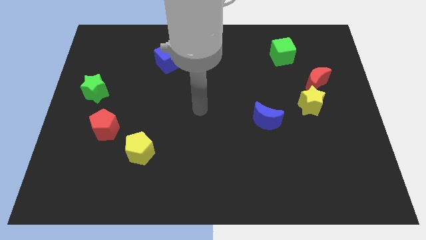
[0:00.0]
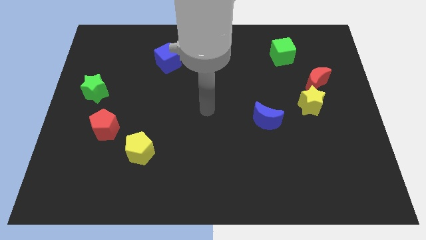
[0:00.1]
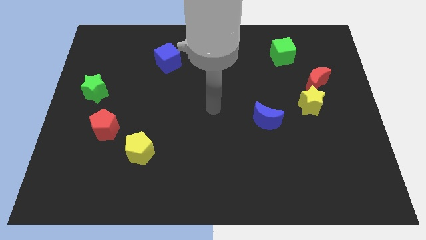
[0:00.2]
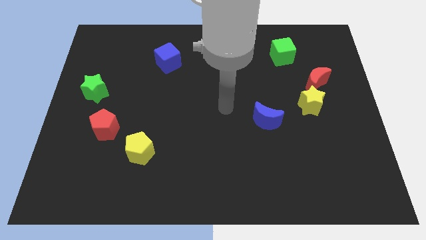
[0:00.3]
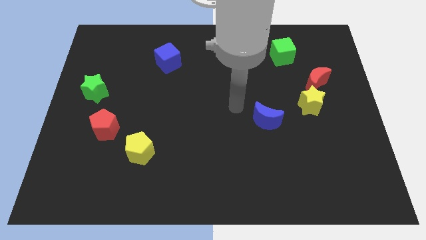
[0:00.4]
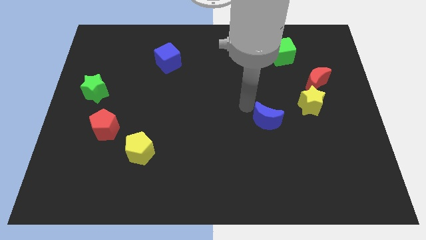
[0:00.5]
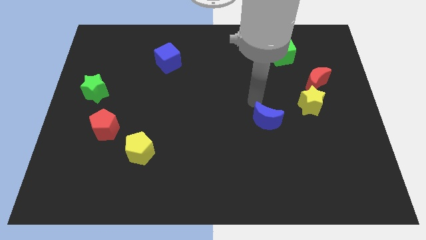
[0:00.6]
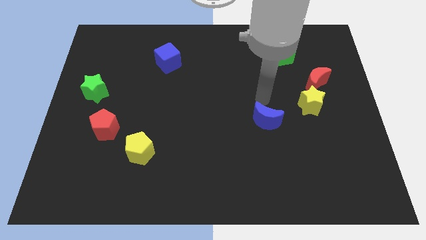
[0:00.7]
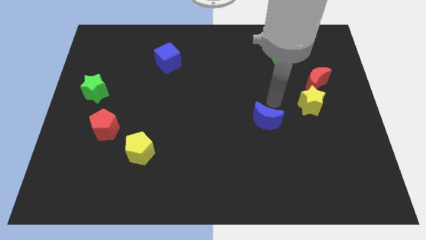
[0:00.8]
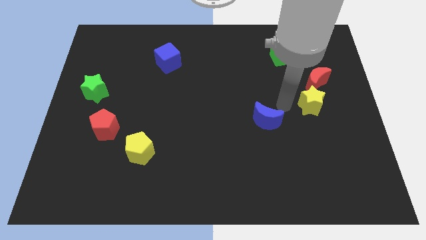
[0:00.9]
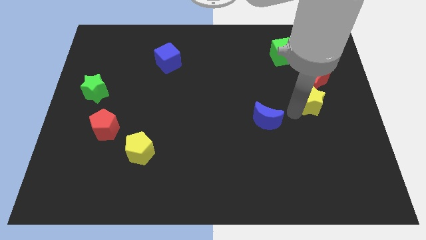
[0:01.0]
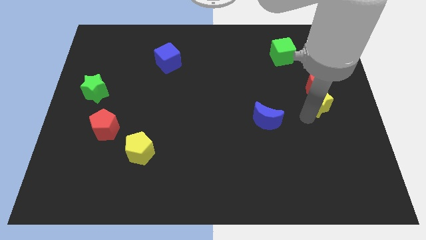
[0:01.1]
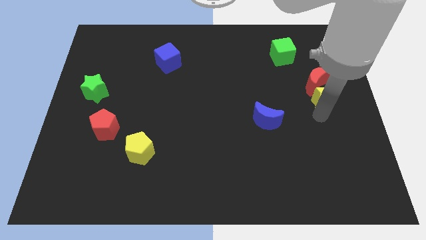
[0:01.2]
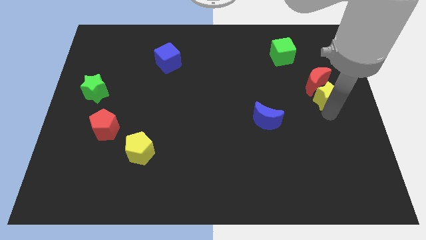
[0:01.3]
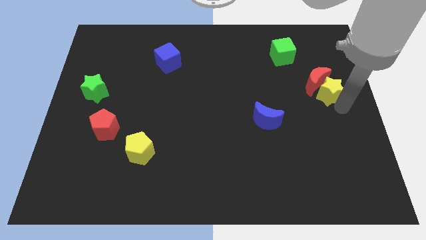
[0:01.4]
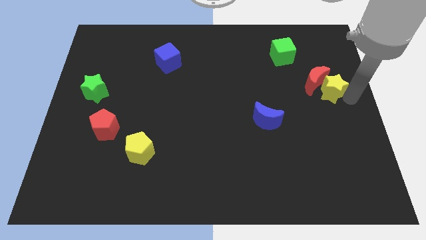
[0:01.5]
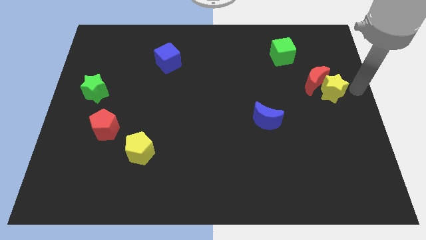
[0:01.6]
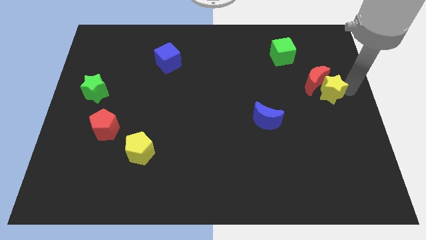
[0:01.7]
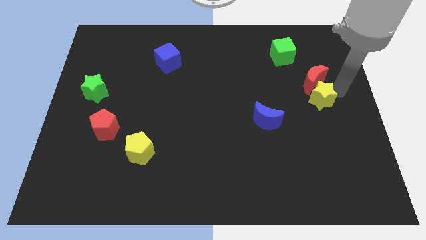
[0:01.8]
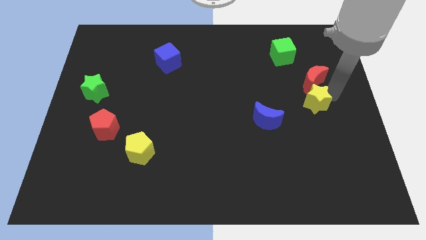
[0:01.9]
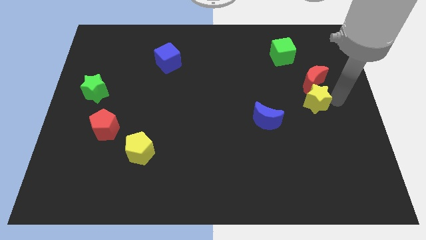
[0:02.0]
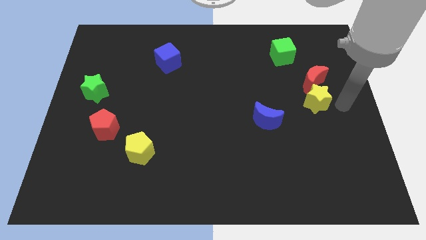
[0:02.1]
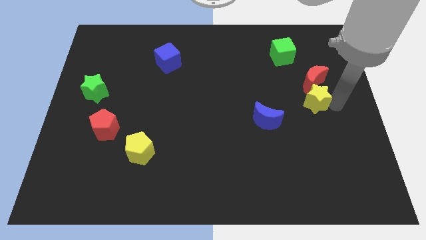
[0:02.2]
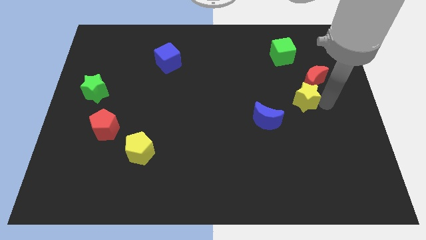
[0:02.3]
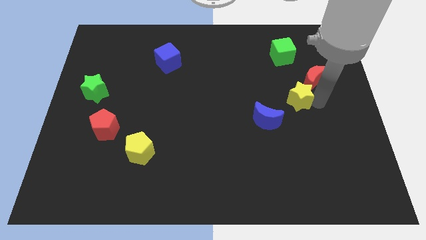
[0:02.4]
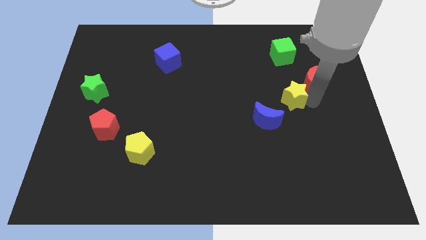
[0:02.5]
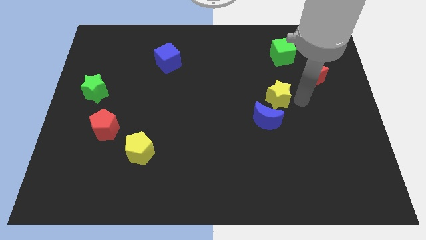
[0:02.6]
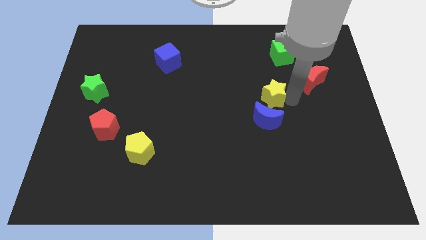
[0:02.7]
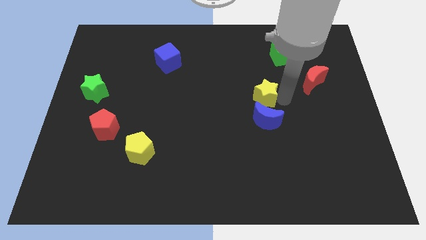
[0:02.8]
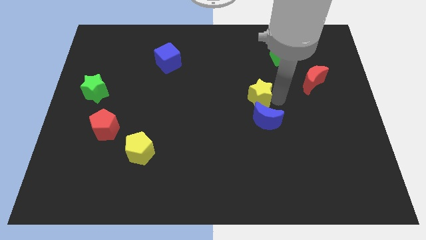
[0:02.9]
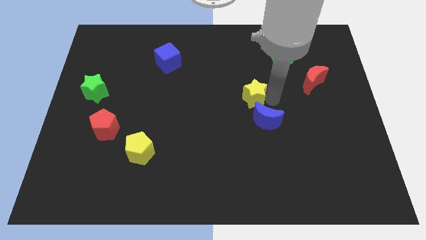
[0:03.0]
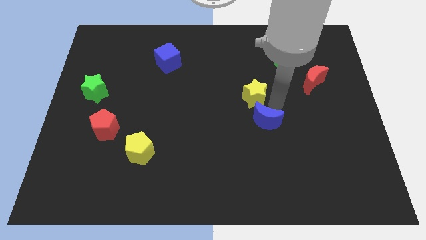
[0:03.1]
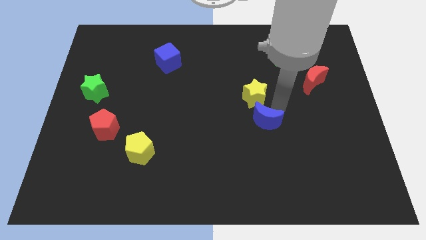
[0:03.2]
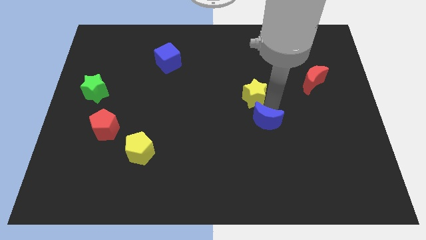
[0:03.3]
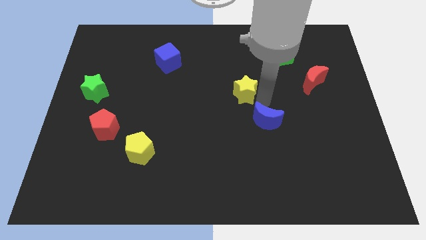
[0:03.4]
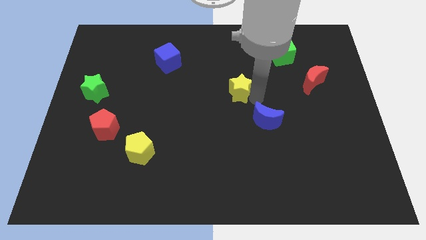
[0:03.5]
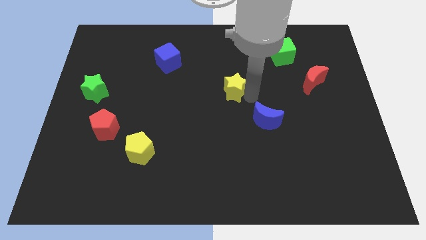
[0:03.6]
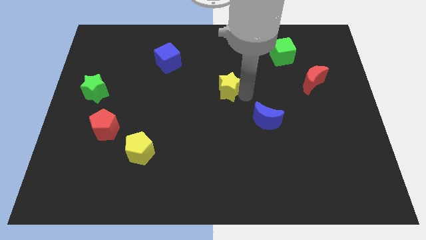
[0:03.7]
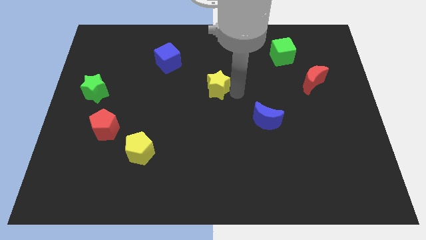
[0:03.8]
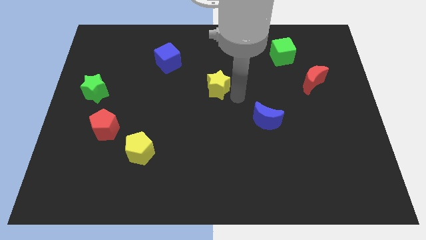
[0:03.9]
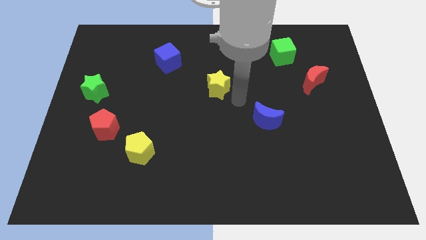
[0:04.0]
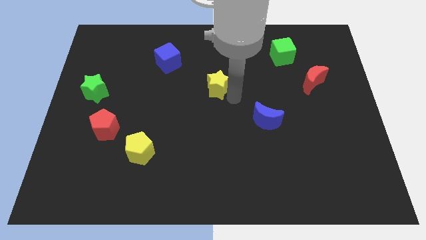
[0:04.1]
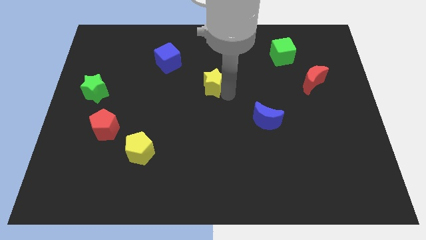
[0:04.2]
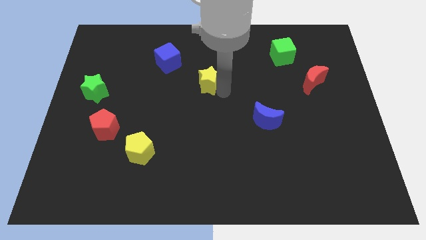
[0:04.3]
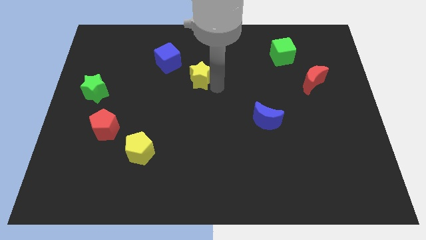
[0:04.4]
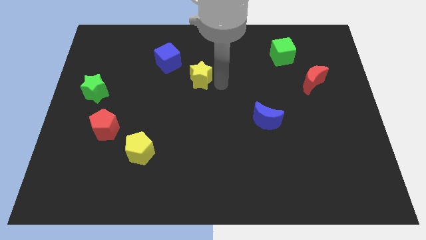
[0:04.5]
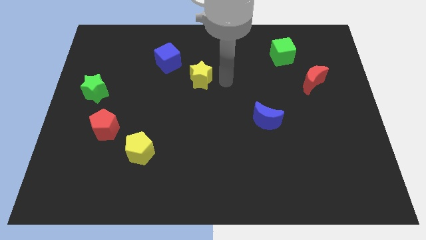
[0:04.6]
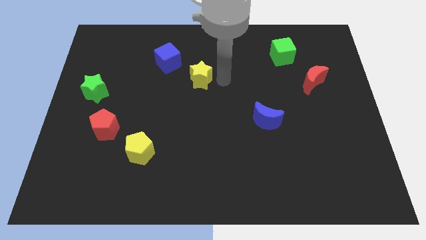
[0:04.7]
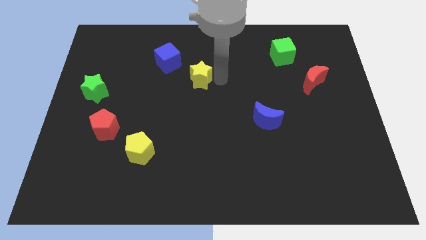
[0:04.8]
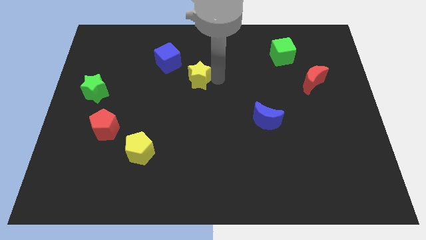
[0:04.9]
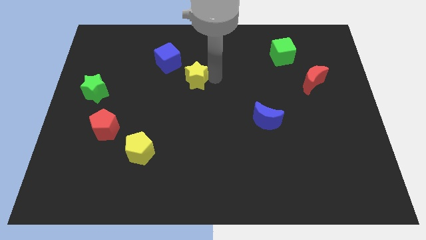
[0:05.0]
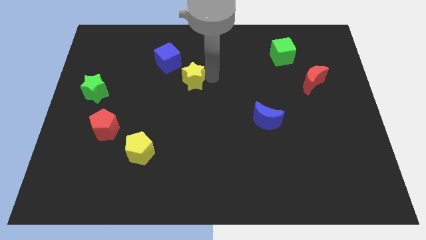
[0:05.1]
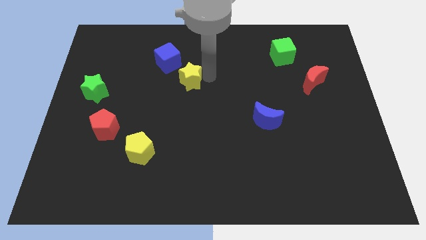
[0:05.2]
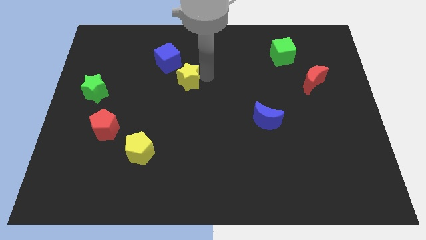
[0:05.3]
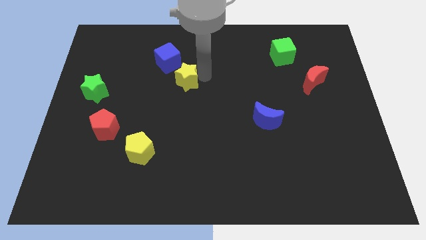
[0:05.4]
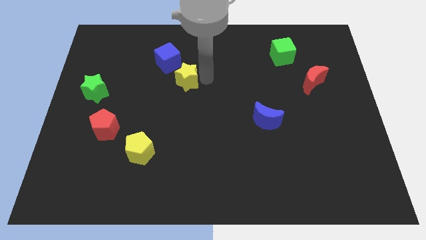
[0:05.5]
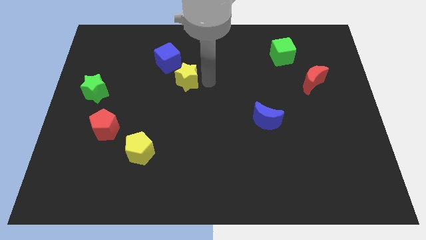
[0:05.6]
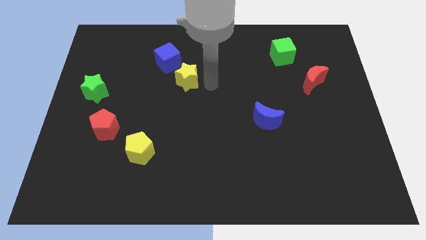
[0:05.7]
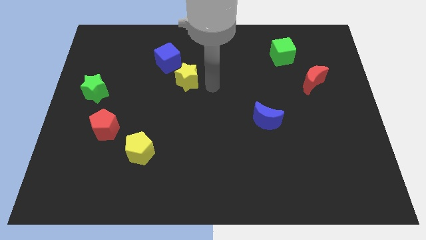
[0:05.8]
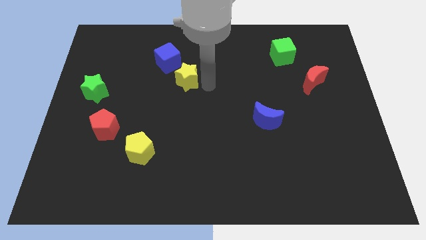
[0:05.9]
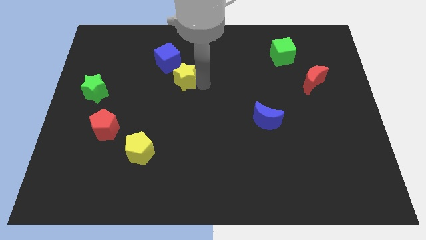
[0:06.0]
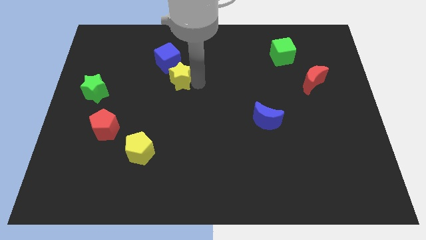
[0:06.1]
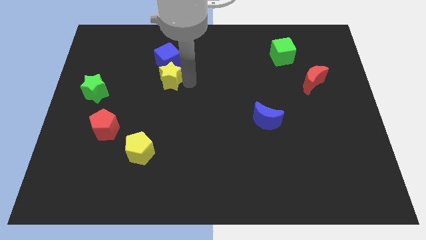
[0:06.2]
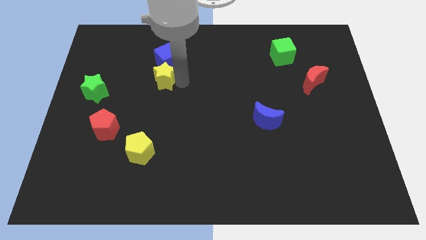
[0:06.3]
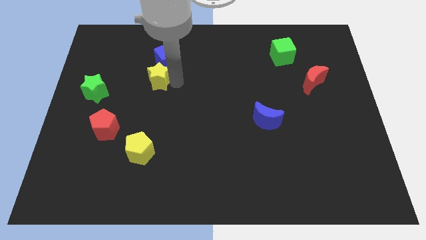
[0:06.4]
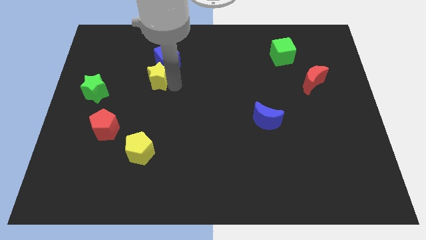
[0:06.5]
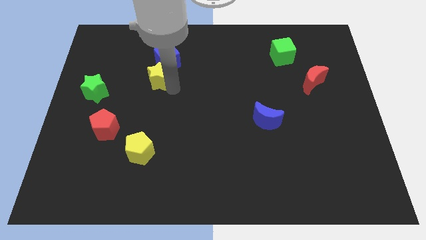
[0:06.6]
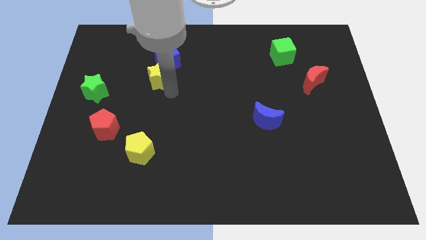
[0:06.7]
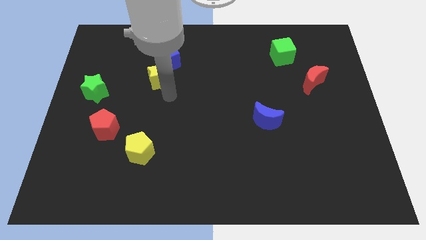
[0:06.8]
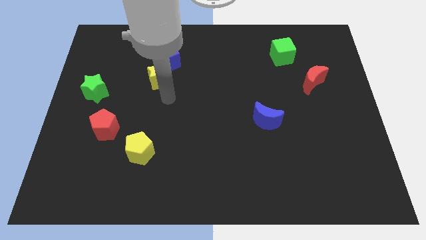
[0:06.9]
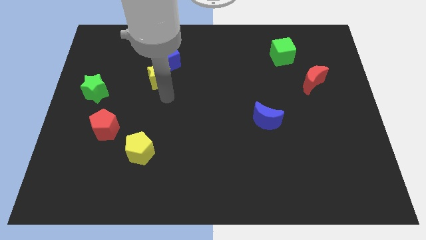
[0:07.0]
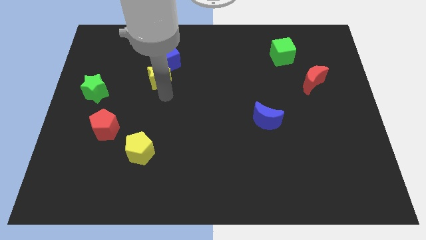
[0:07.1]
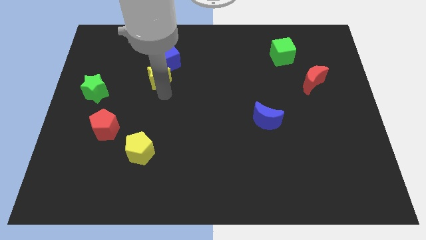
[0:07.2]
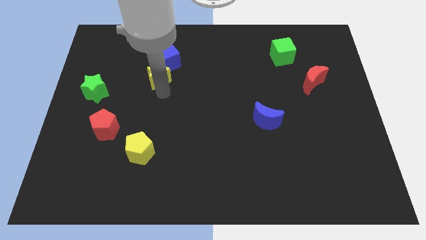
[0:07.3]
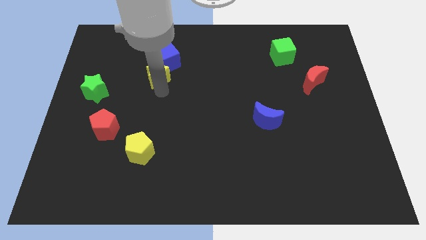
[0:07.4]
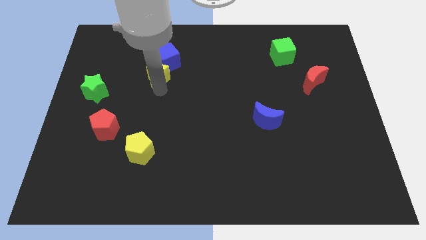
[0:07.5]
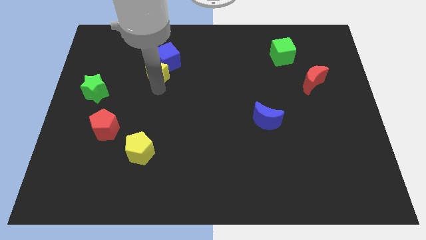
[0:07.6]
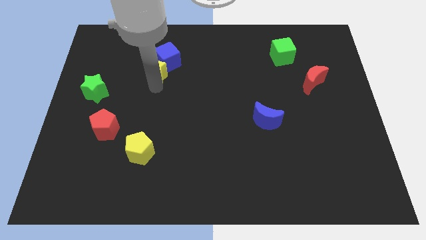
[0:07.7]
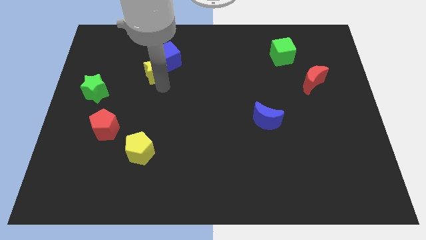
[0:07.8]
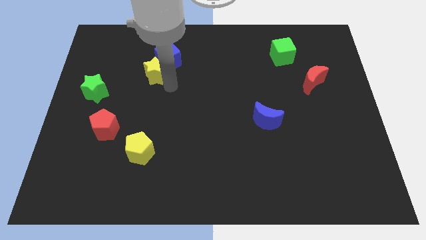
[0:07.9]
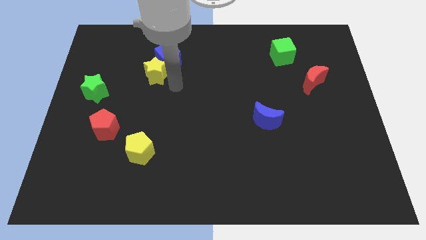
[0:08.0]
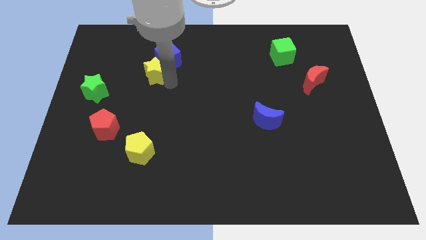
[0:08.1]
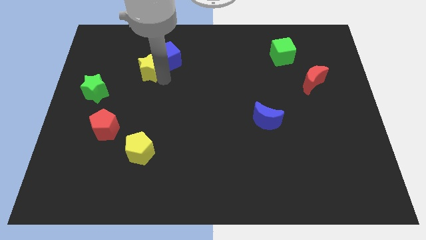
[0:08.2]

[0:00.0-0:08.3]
put the yellow star to the left of the blue cube

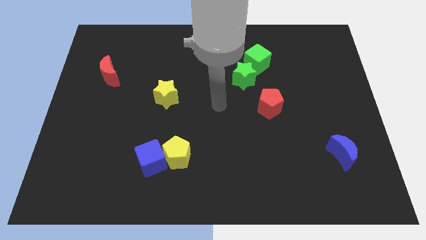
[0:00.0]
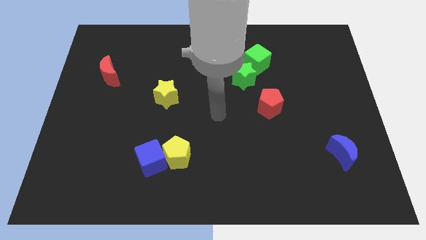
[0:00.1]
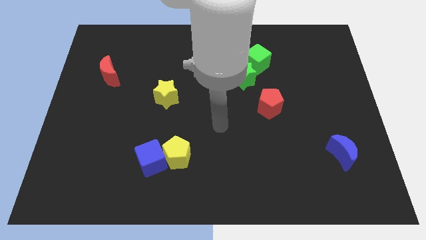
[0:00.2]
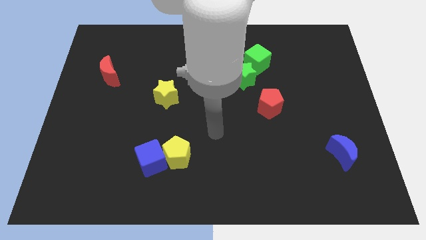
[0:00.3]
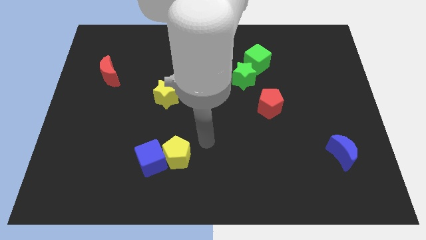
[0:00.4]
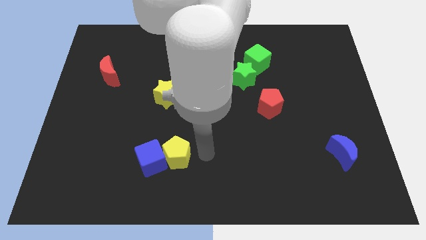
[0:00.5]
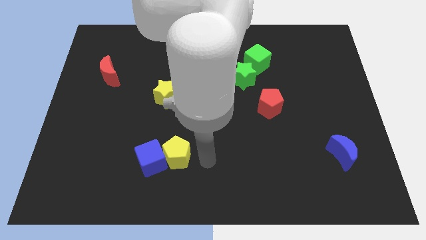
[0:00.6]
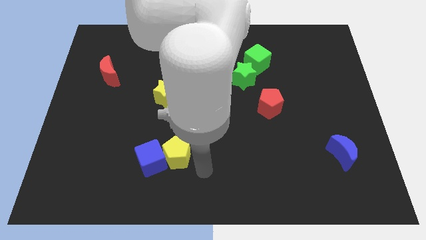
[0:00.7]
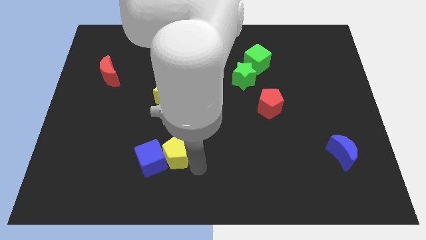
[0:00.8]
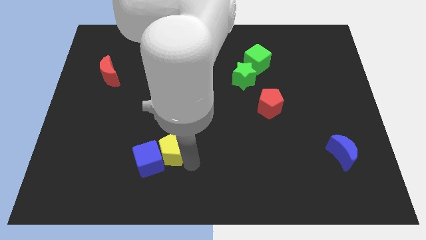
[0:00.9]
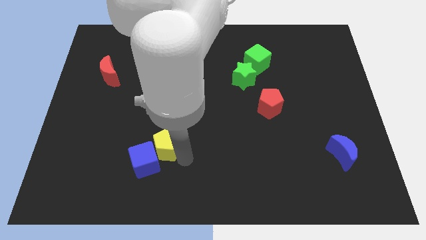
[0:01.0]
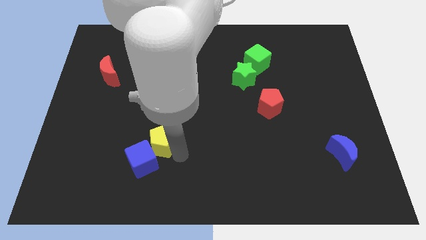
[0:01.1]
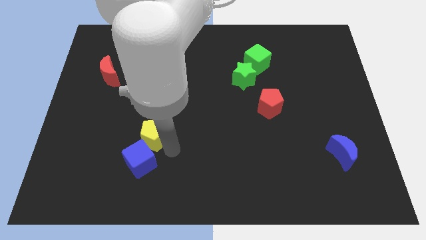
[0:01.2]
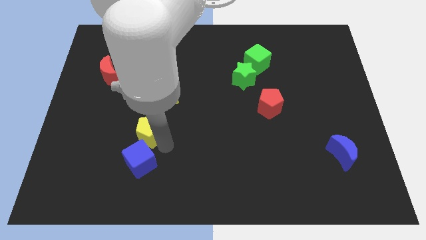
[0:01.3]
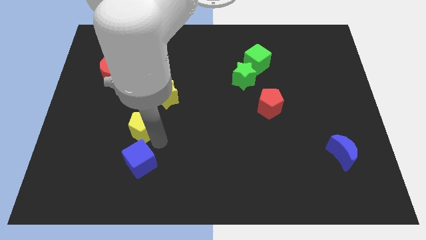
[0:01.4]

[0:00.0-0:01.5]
put the yellow pentagon to the bottom left side of the yellow star
